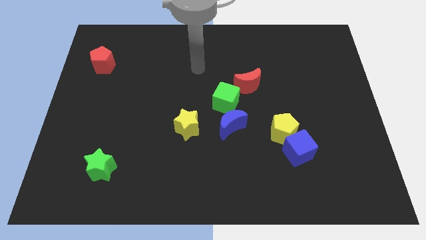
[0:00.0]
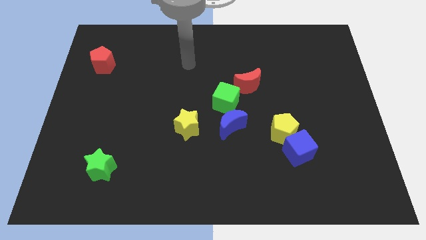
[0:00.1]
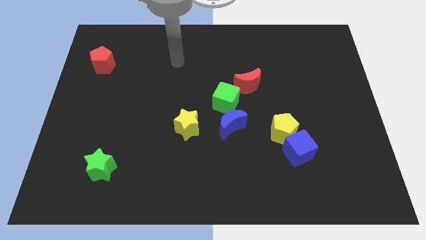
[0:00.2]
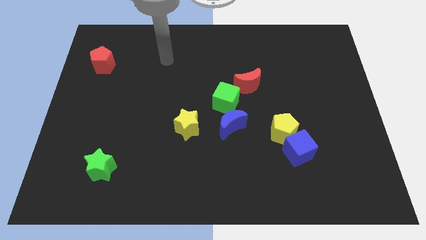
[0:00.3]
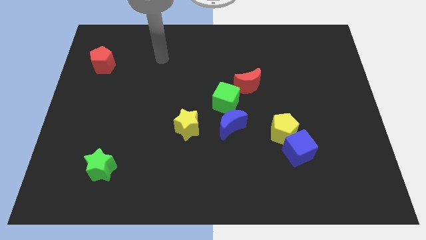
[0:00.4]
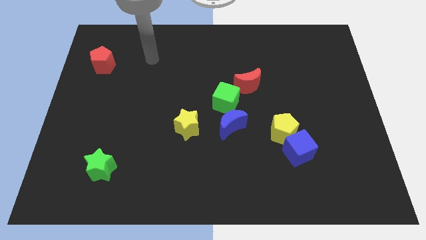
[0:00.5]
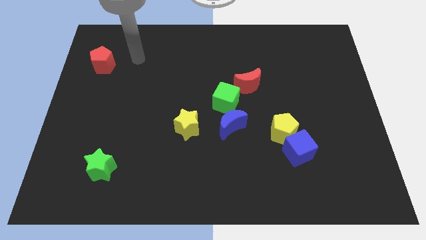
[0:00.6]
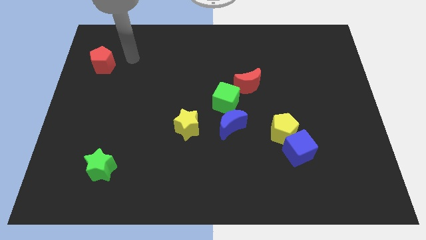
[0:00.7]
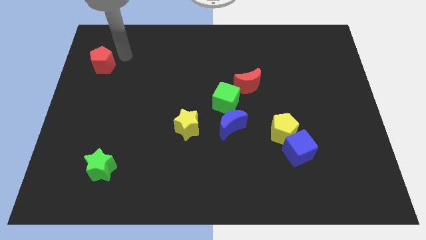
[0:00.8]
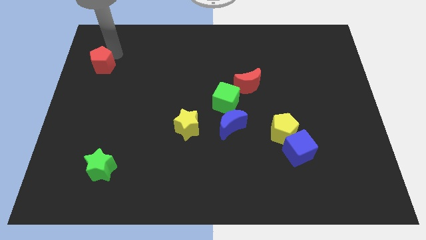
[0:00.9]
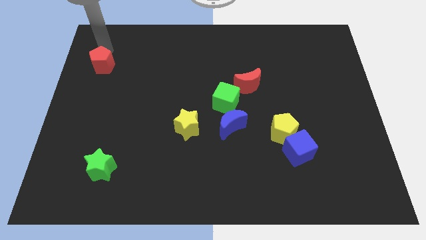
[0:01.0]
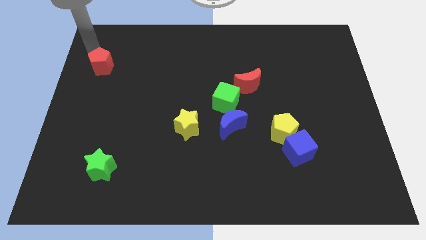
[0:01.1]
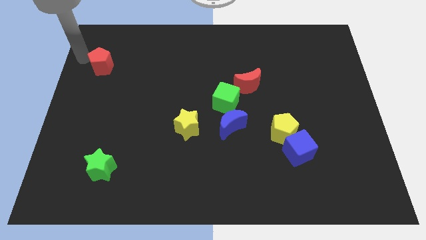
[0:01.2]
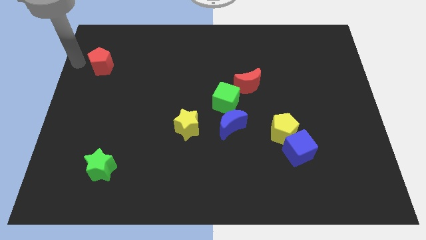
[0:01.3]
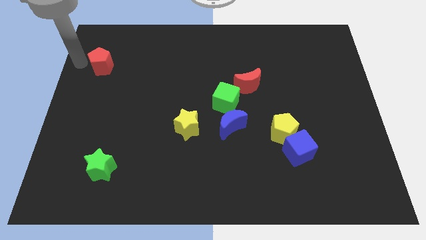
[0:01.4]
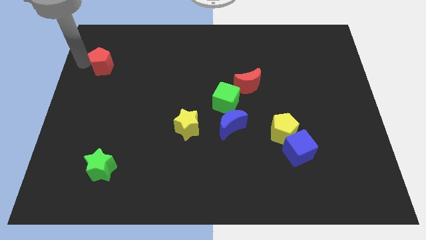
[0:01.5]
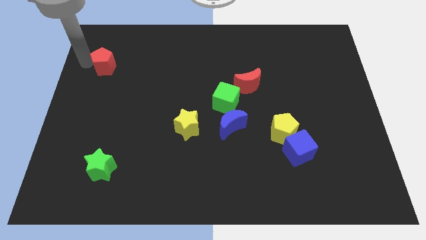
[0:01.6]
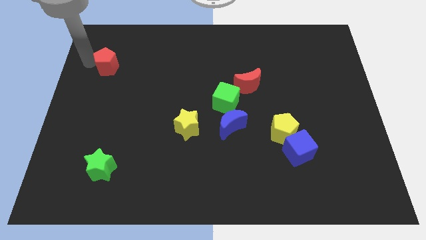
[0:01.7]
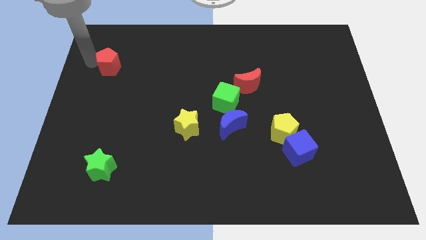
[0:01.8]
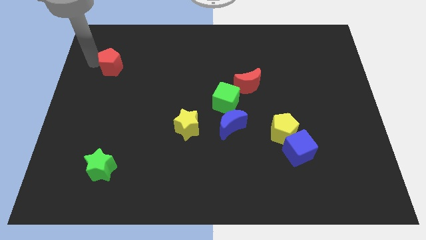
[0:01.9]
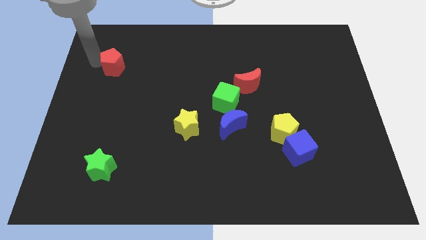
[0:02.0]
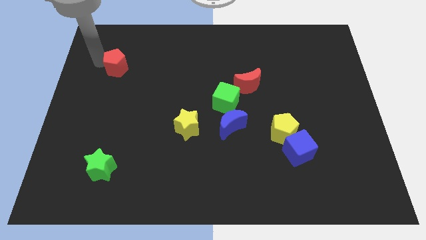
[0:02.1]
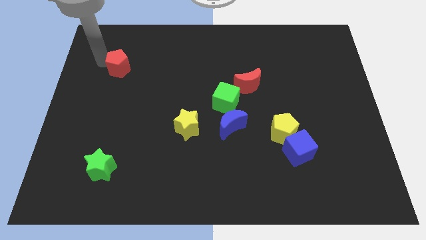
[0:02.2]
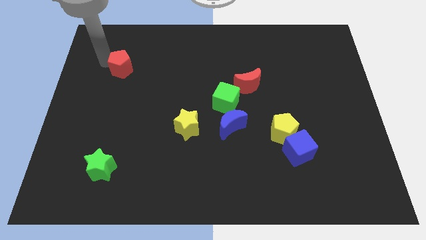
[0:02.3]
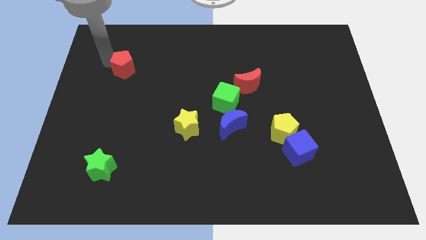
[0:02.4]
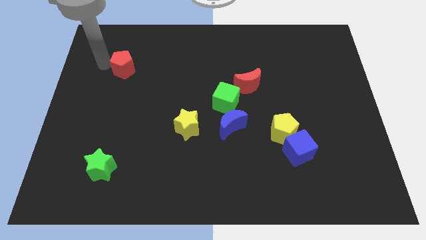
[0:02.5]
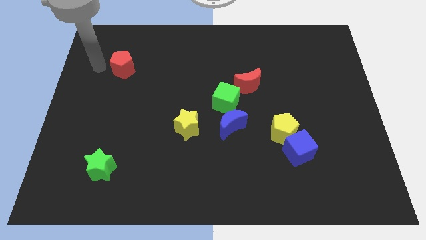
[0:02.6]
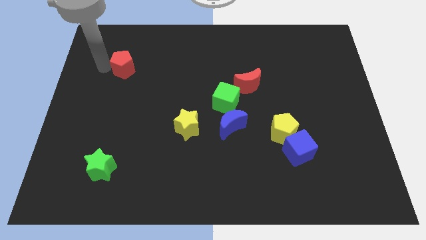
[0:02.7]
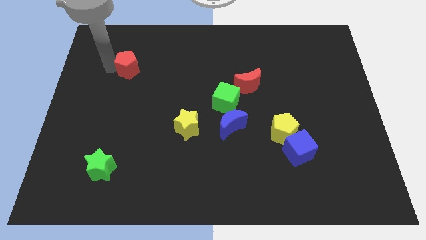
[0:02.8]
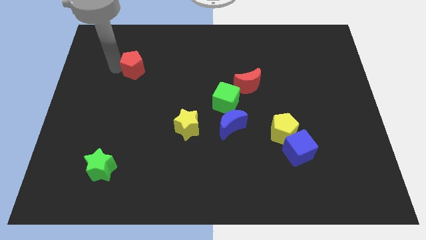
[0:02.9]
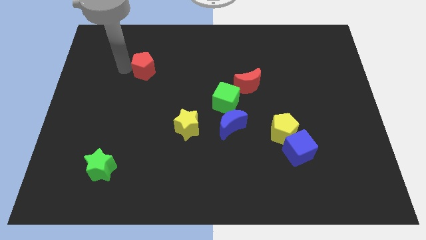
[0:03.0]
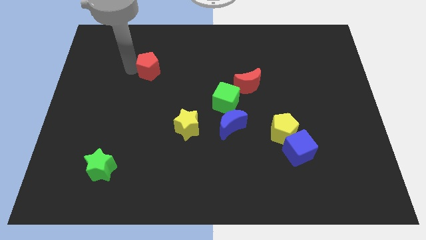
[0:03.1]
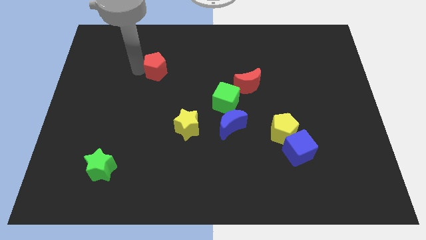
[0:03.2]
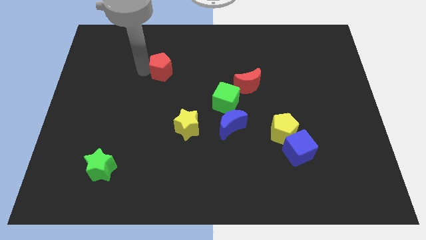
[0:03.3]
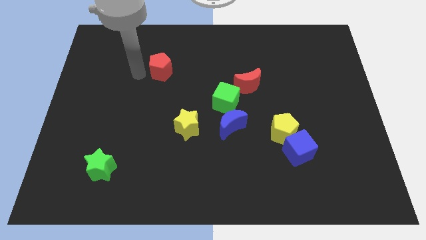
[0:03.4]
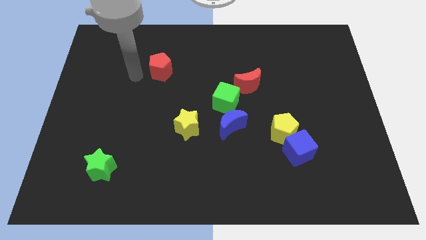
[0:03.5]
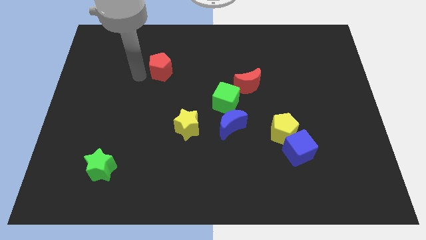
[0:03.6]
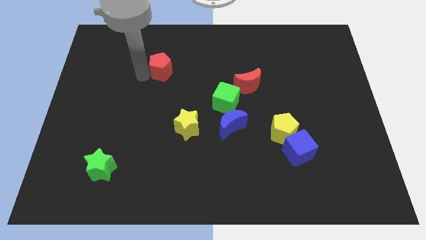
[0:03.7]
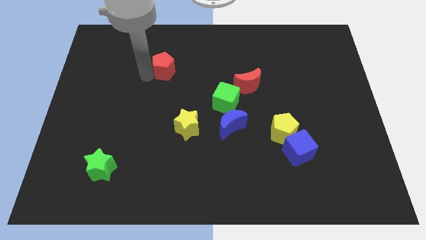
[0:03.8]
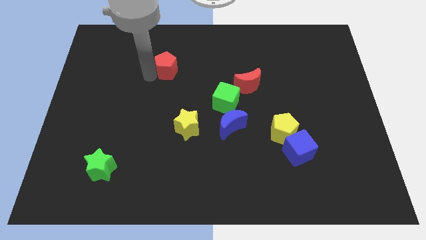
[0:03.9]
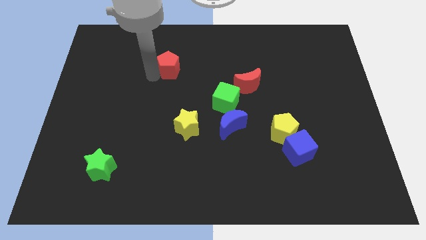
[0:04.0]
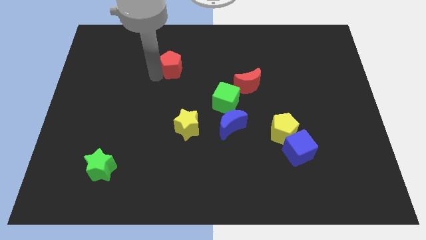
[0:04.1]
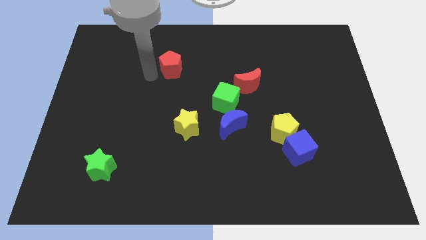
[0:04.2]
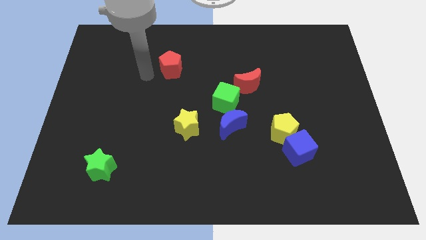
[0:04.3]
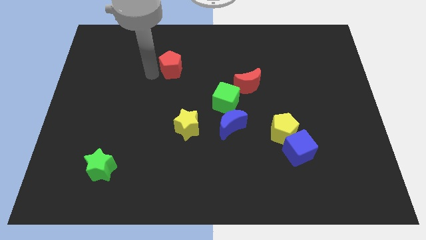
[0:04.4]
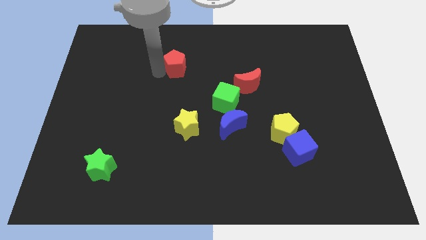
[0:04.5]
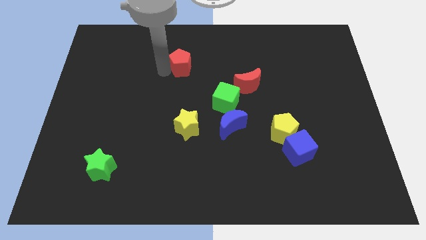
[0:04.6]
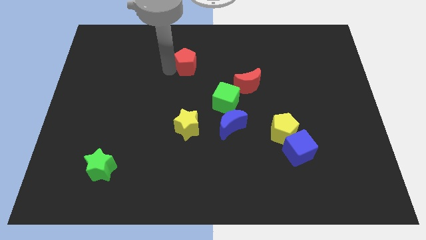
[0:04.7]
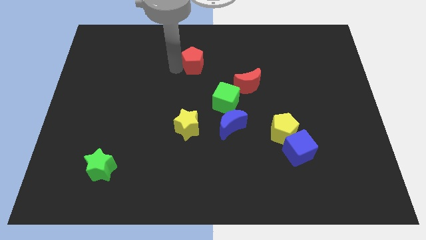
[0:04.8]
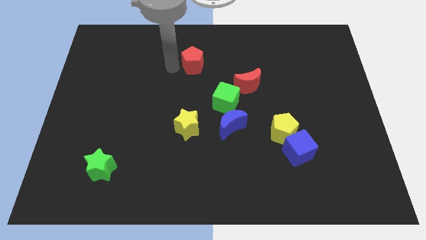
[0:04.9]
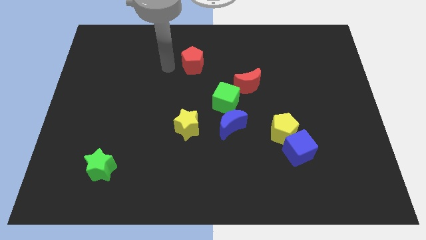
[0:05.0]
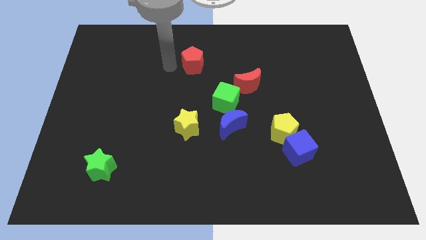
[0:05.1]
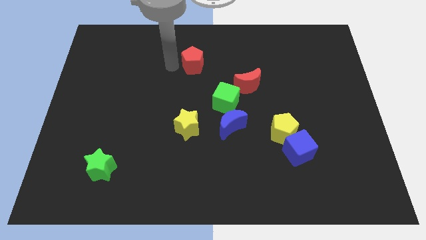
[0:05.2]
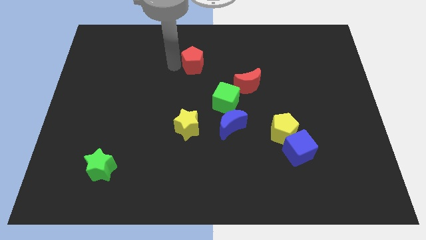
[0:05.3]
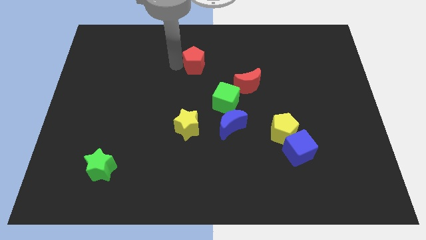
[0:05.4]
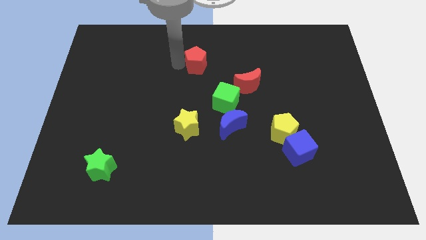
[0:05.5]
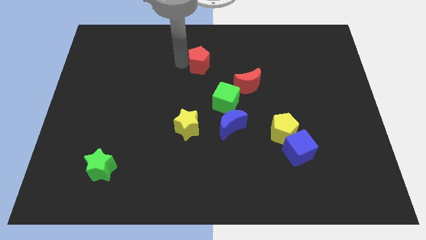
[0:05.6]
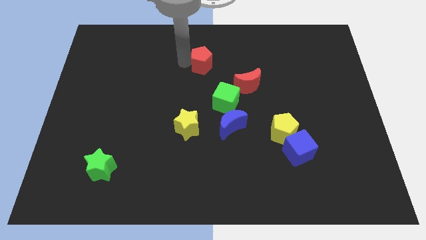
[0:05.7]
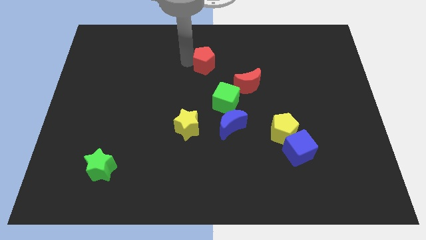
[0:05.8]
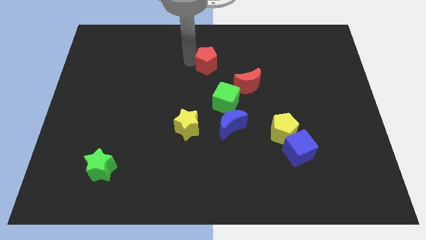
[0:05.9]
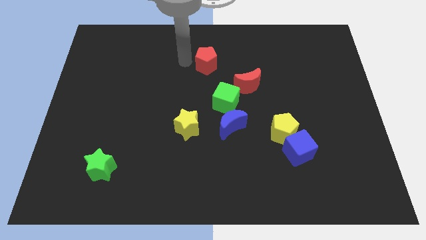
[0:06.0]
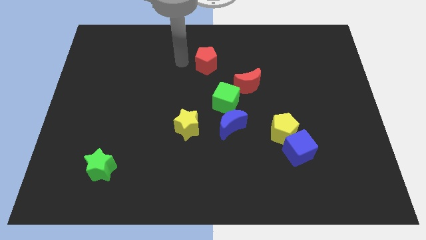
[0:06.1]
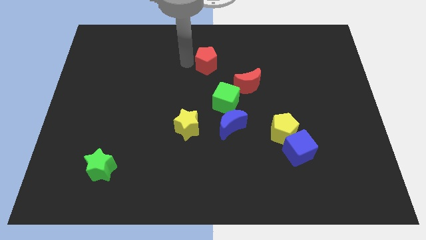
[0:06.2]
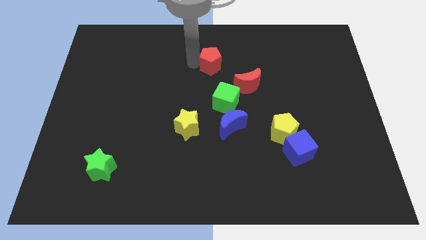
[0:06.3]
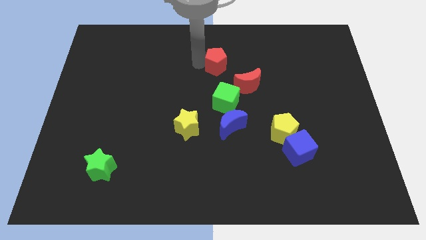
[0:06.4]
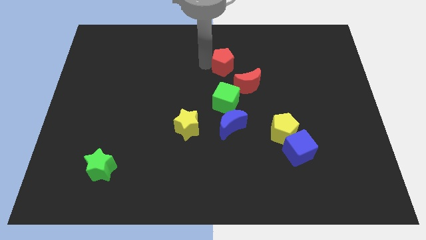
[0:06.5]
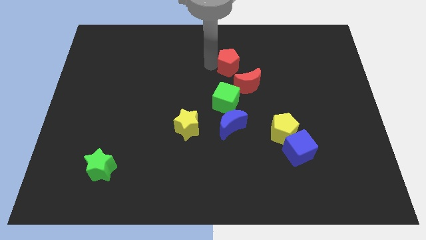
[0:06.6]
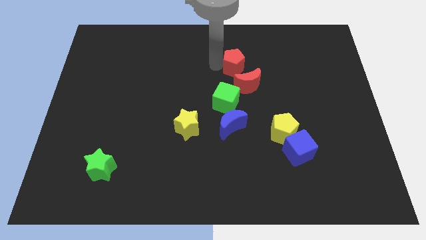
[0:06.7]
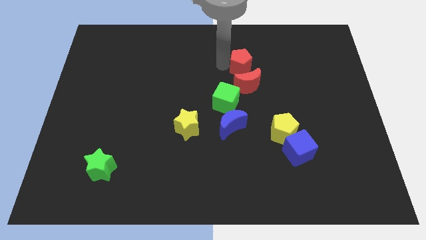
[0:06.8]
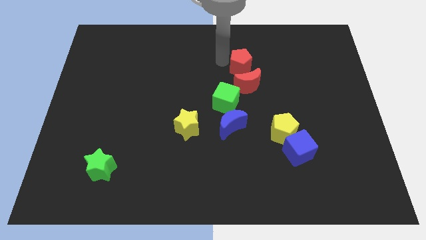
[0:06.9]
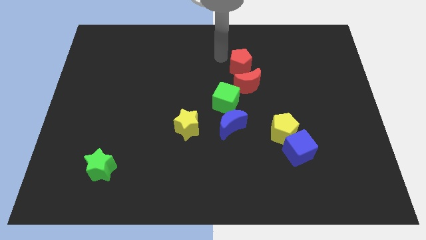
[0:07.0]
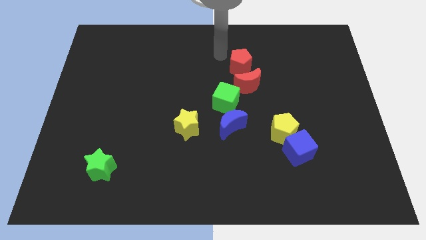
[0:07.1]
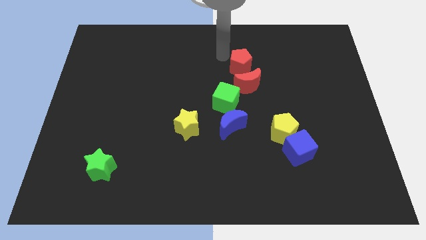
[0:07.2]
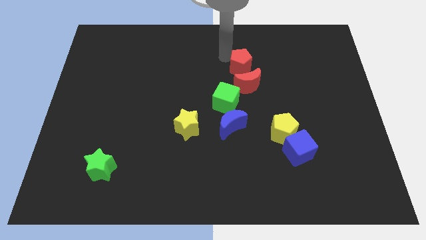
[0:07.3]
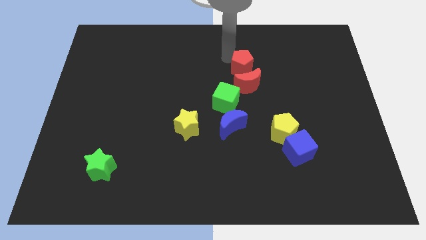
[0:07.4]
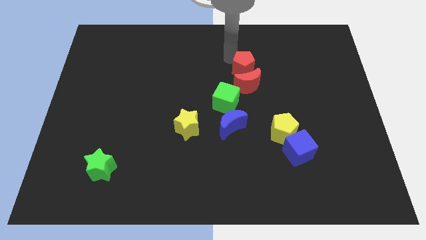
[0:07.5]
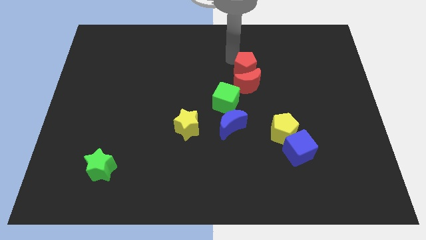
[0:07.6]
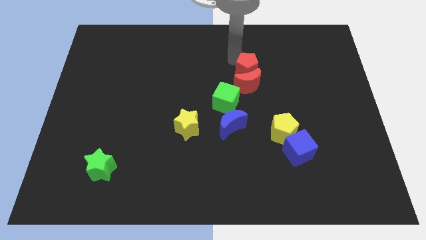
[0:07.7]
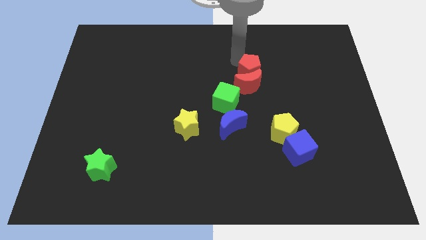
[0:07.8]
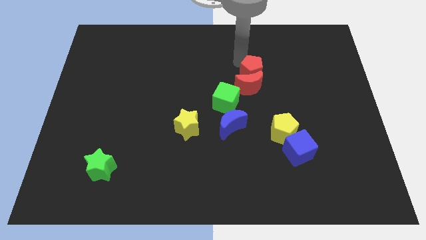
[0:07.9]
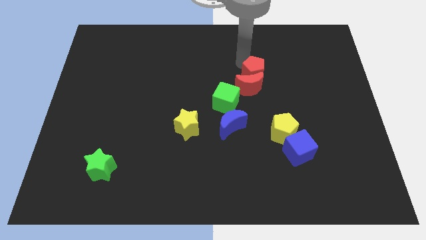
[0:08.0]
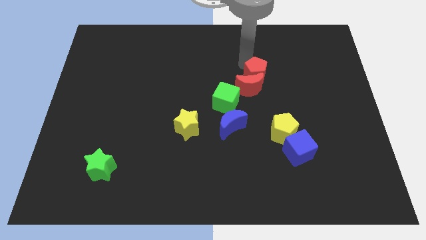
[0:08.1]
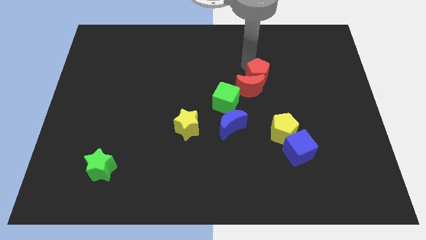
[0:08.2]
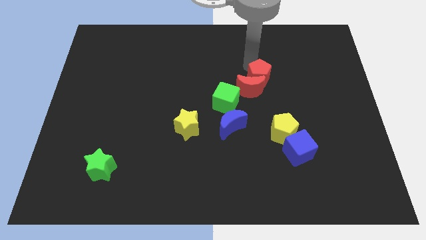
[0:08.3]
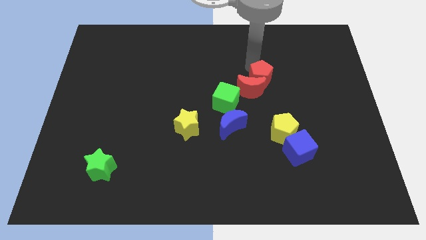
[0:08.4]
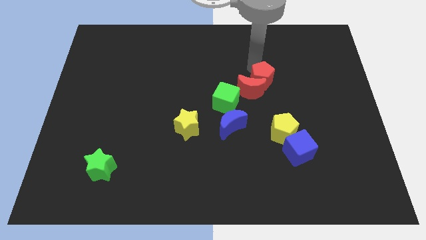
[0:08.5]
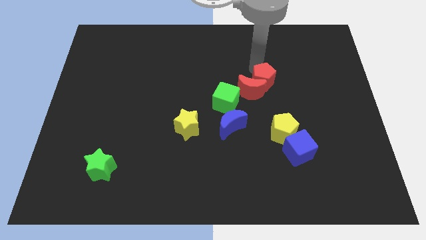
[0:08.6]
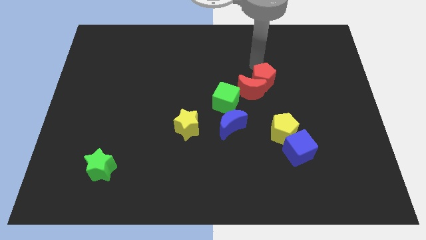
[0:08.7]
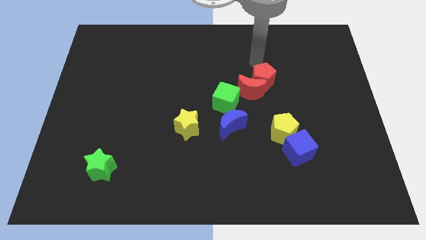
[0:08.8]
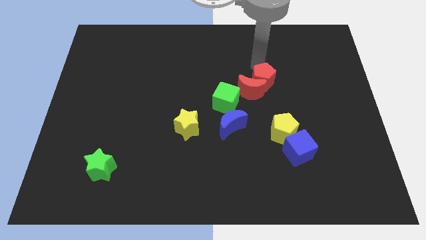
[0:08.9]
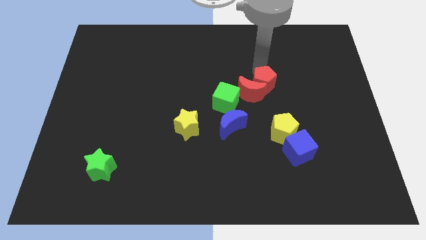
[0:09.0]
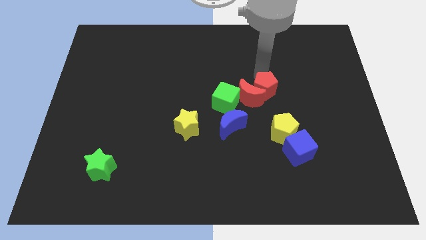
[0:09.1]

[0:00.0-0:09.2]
put the red pentagon just right of the green cube
